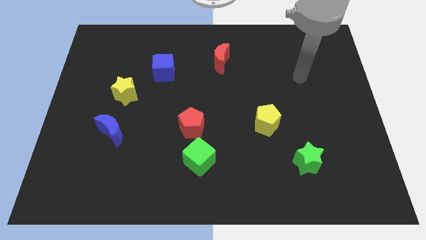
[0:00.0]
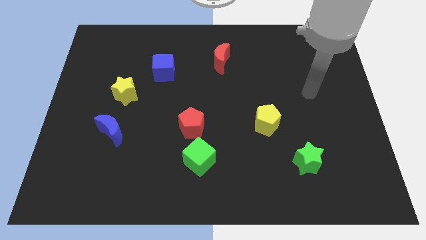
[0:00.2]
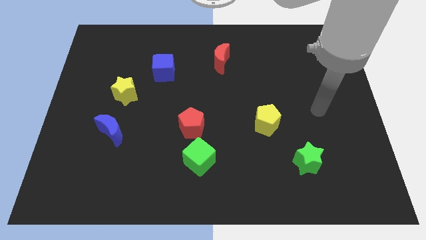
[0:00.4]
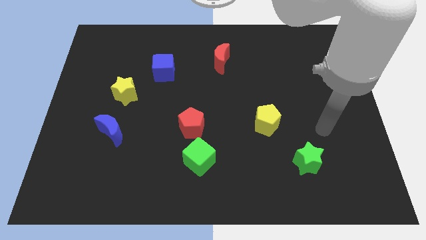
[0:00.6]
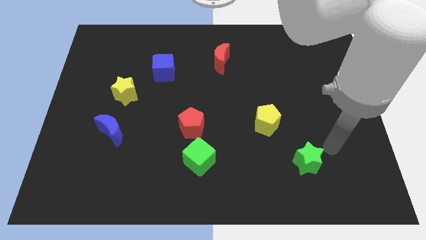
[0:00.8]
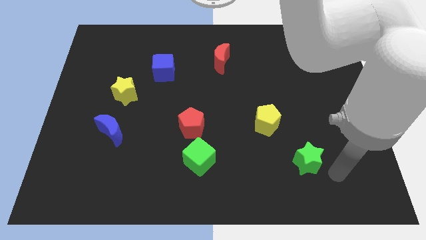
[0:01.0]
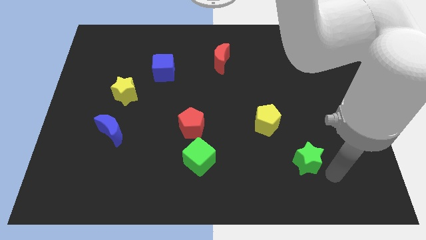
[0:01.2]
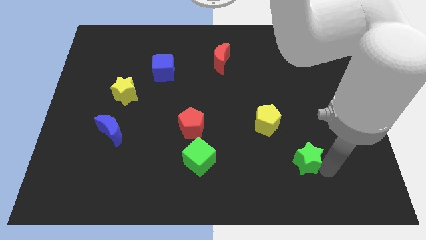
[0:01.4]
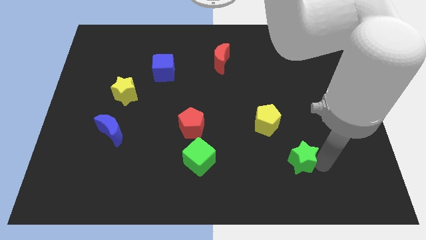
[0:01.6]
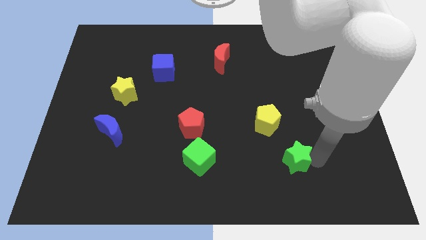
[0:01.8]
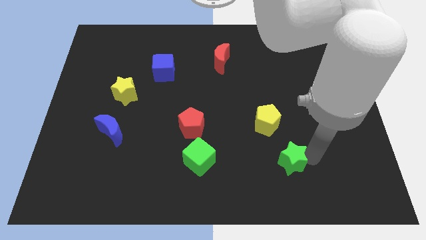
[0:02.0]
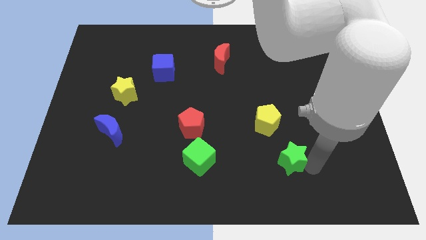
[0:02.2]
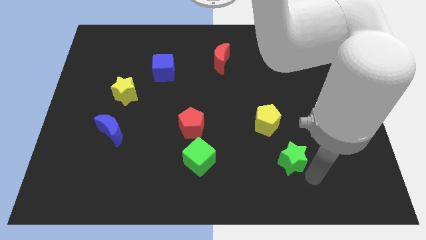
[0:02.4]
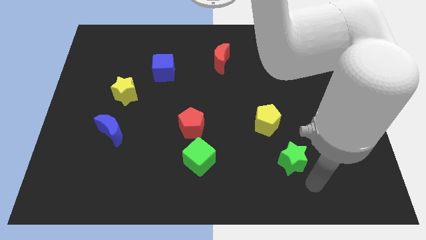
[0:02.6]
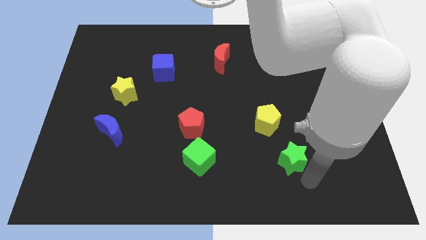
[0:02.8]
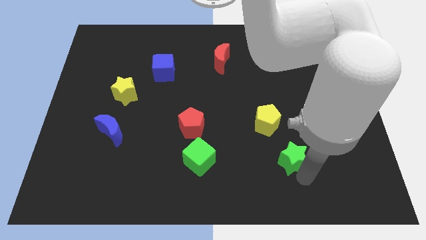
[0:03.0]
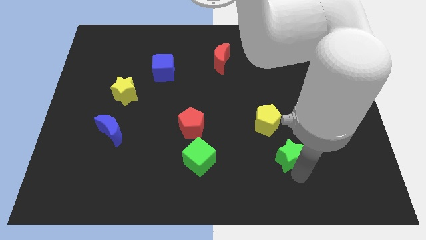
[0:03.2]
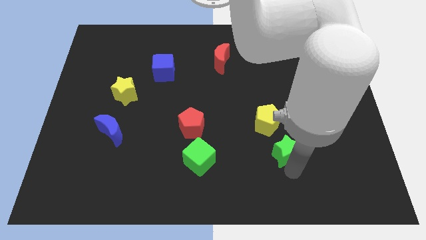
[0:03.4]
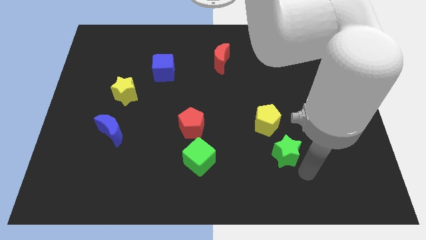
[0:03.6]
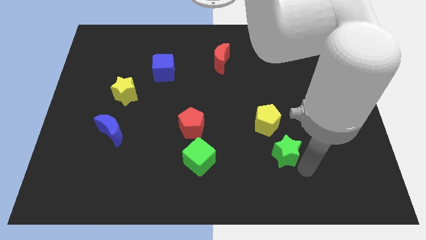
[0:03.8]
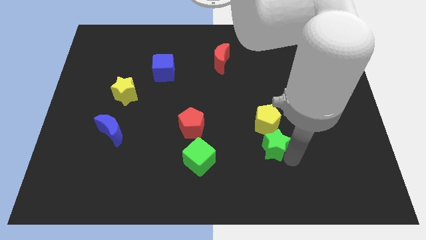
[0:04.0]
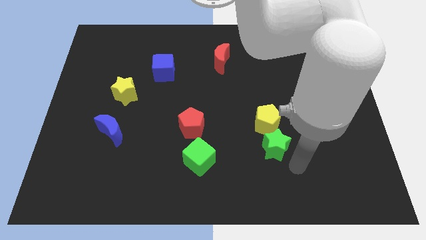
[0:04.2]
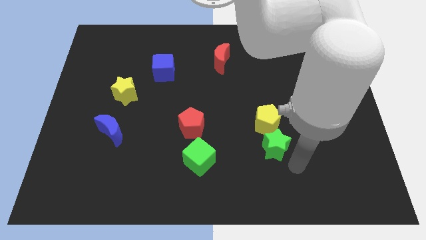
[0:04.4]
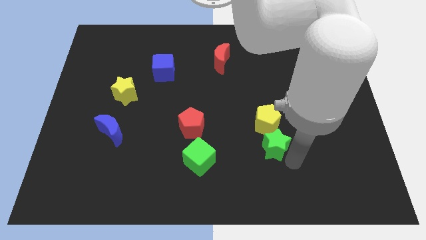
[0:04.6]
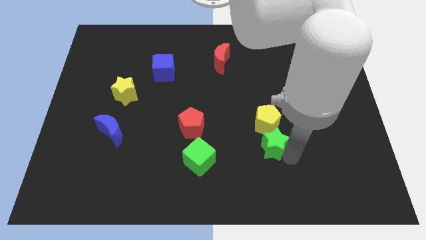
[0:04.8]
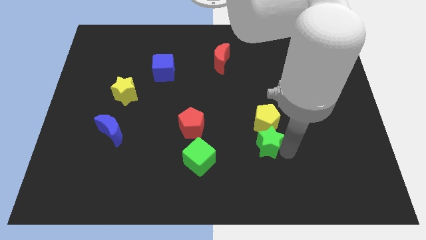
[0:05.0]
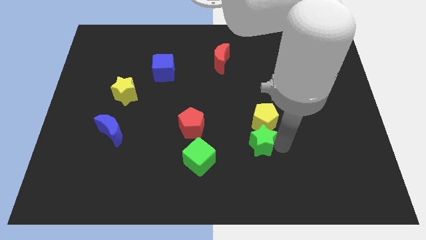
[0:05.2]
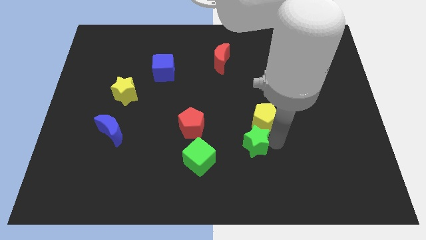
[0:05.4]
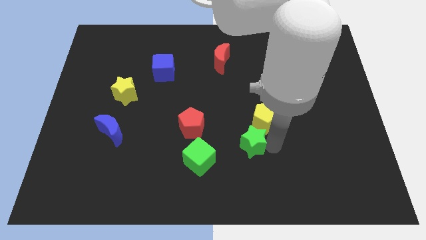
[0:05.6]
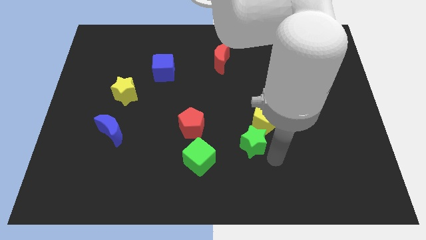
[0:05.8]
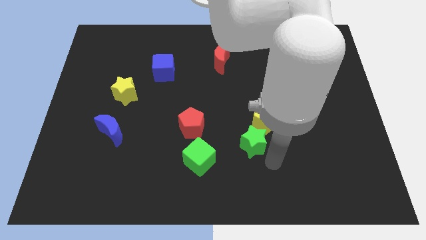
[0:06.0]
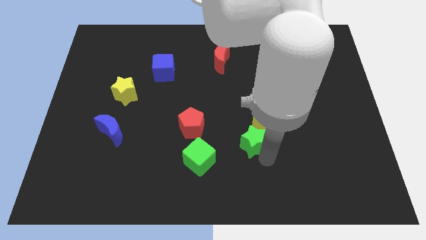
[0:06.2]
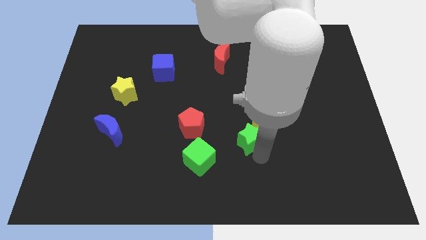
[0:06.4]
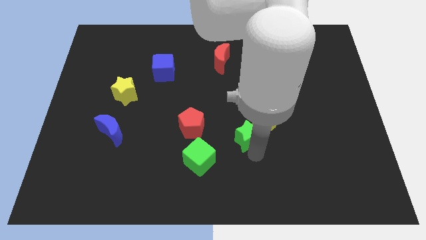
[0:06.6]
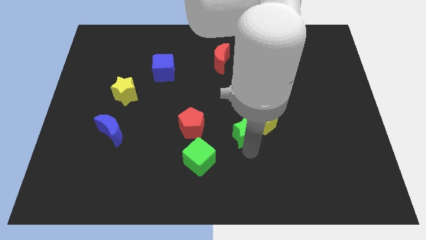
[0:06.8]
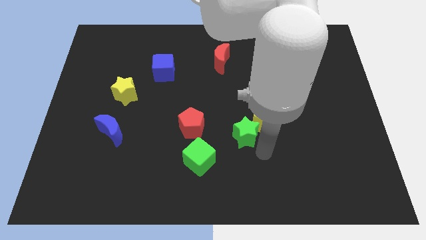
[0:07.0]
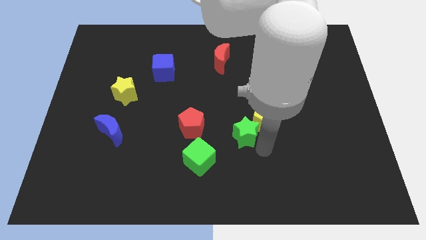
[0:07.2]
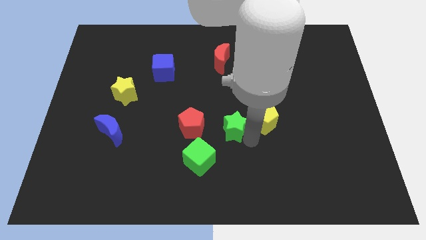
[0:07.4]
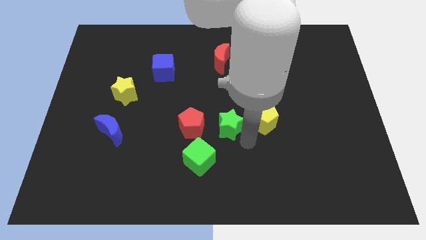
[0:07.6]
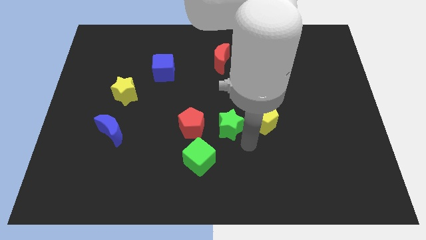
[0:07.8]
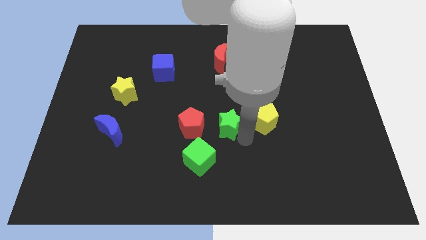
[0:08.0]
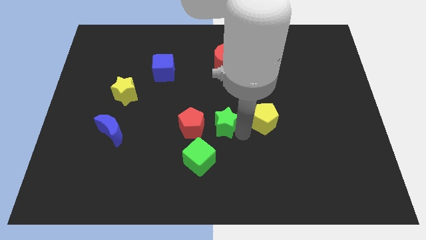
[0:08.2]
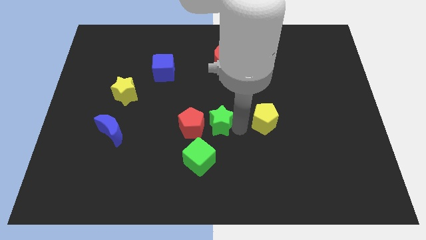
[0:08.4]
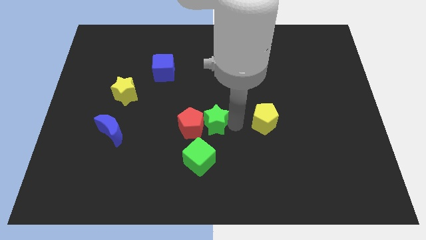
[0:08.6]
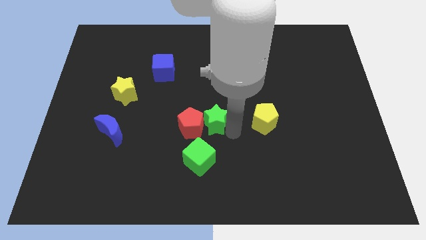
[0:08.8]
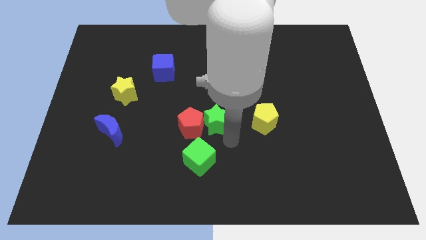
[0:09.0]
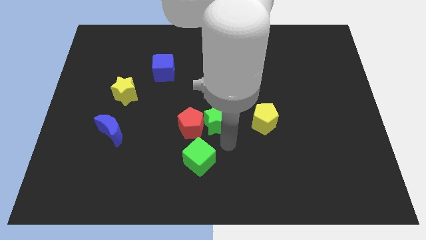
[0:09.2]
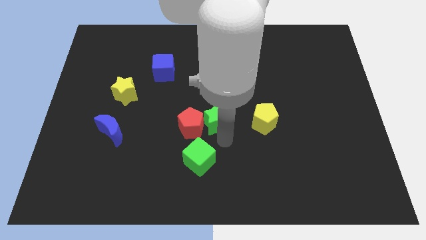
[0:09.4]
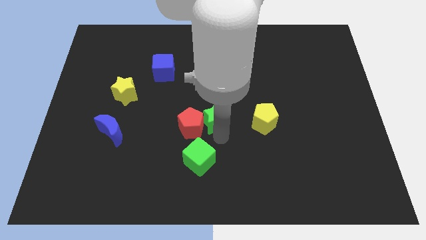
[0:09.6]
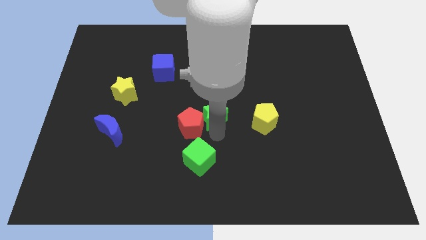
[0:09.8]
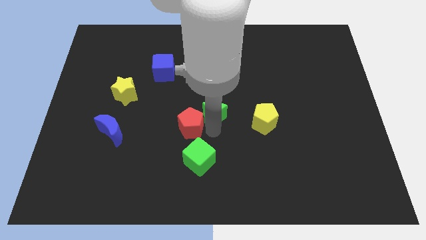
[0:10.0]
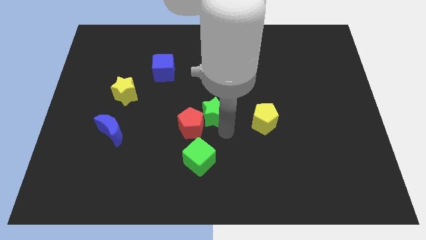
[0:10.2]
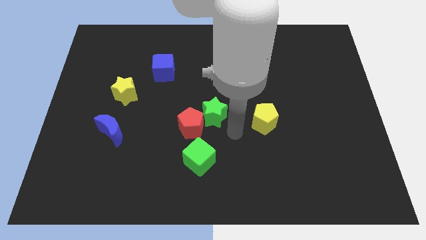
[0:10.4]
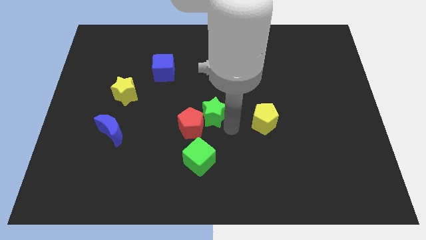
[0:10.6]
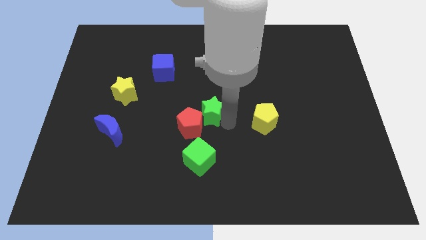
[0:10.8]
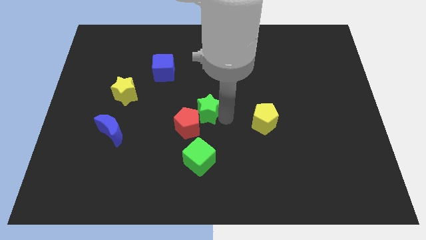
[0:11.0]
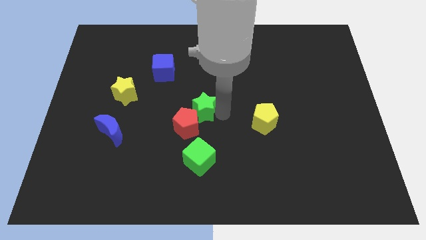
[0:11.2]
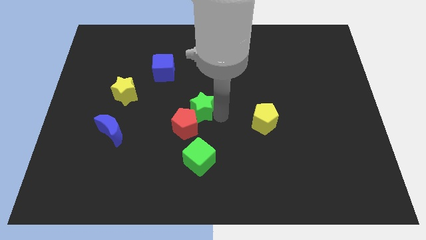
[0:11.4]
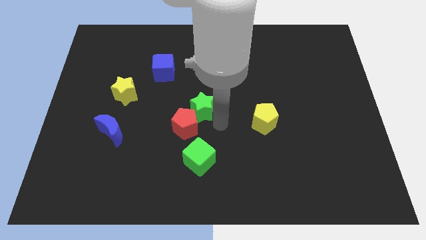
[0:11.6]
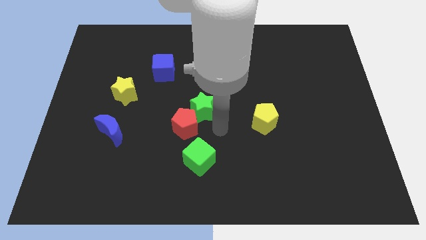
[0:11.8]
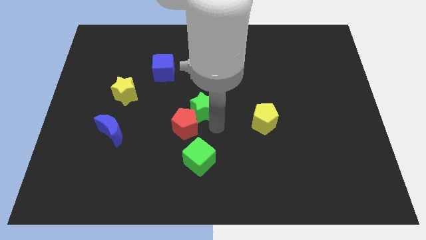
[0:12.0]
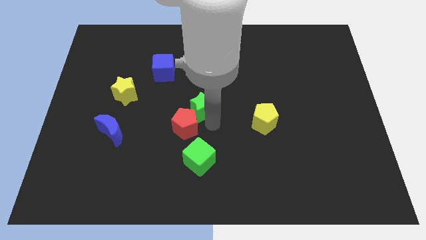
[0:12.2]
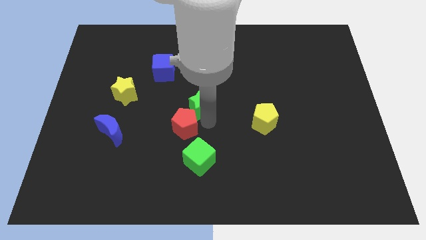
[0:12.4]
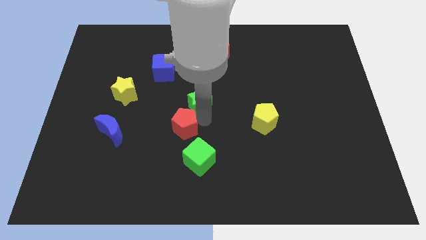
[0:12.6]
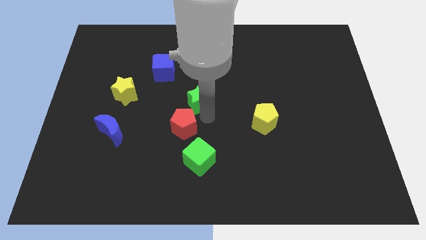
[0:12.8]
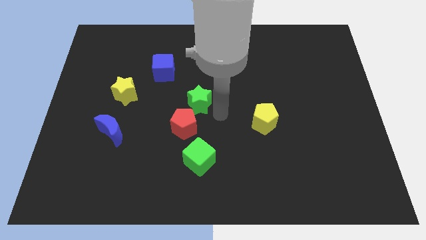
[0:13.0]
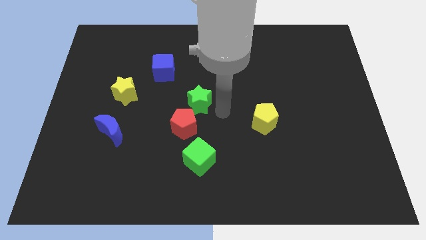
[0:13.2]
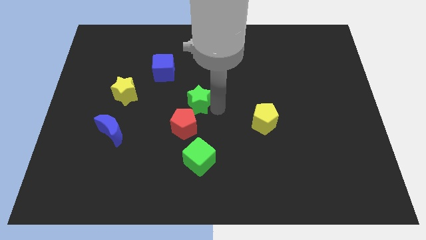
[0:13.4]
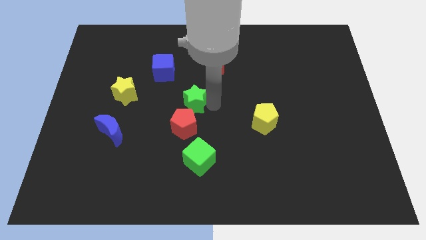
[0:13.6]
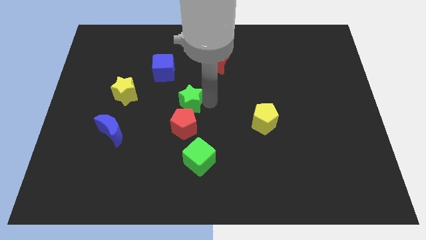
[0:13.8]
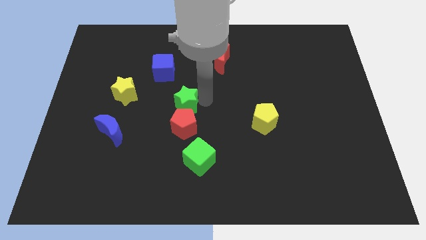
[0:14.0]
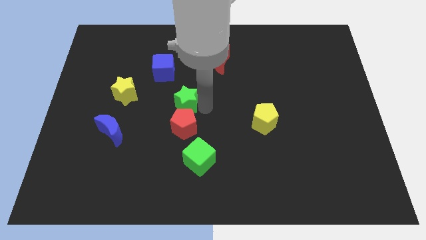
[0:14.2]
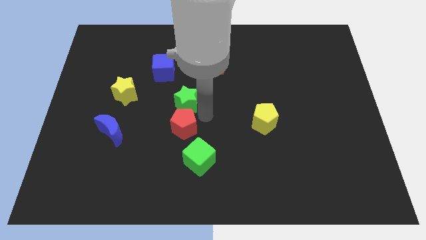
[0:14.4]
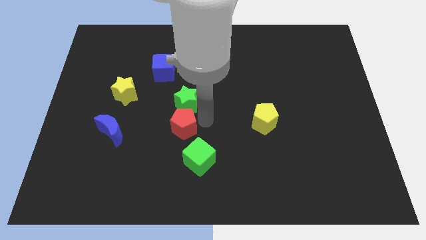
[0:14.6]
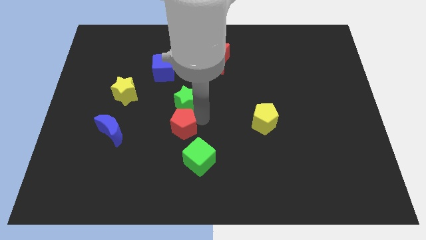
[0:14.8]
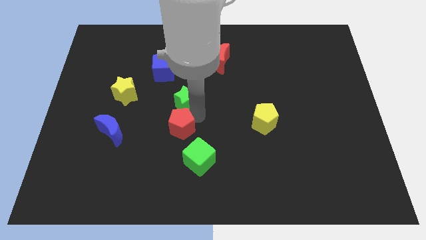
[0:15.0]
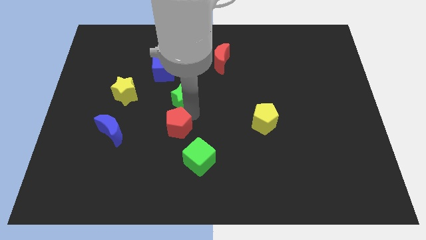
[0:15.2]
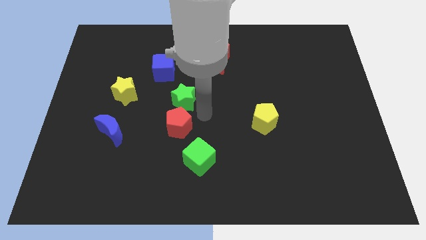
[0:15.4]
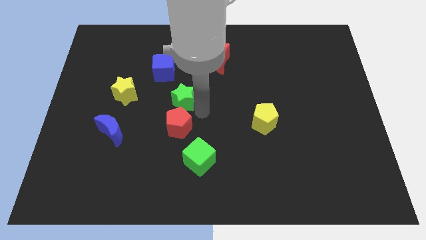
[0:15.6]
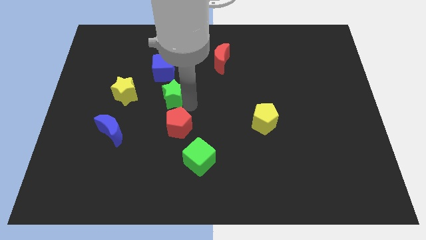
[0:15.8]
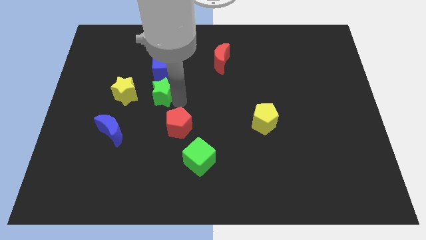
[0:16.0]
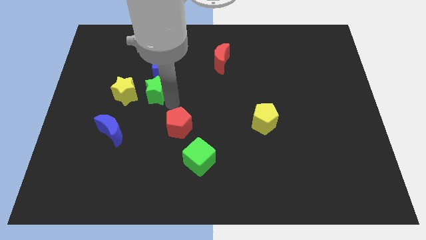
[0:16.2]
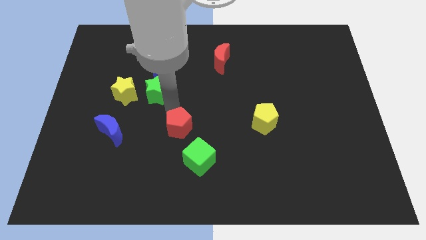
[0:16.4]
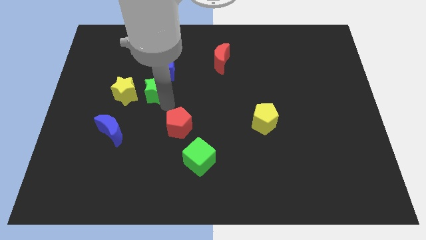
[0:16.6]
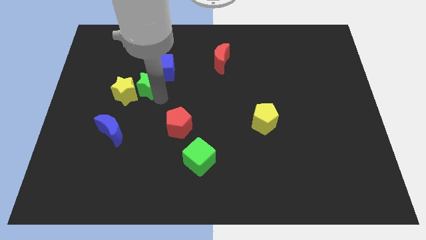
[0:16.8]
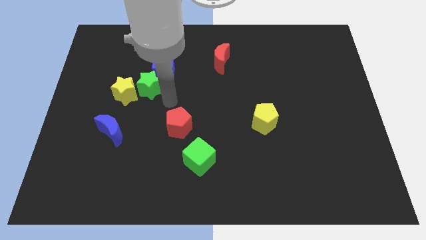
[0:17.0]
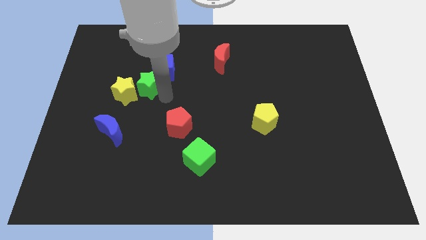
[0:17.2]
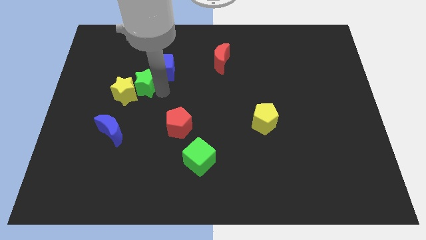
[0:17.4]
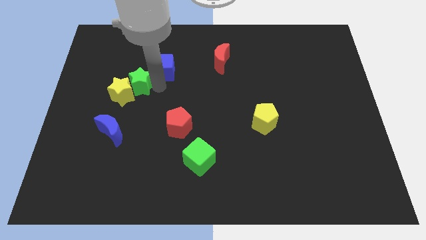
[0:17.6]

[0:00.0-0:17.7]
put the green star to the left of the blue cube
